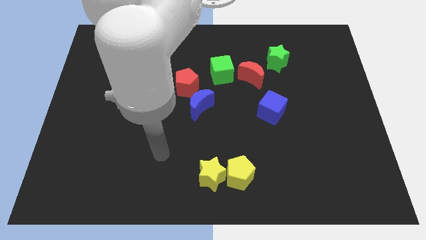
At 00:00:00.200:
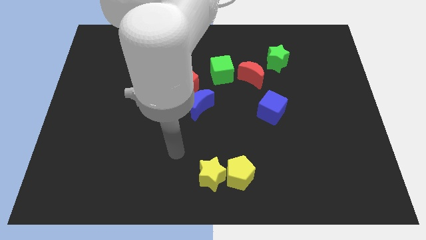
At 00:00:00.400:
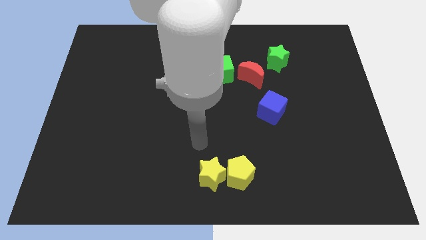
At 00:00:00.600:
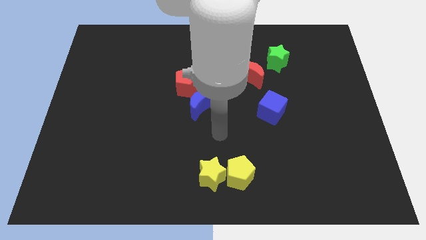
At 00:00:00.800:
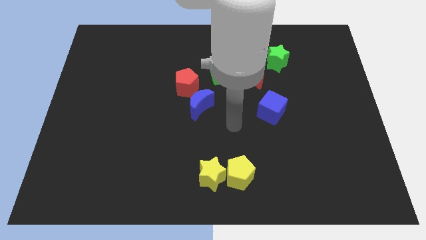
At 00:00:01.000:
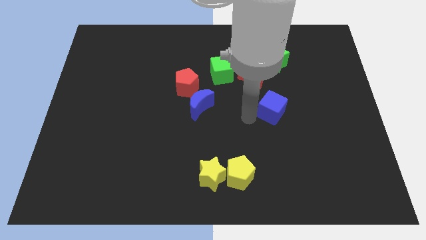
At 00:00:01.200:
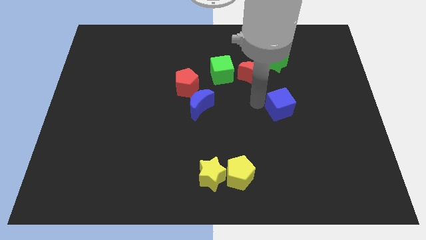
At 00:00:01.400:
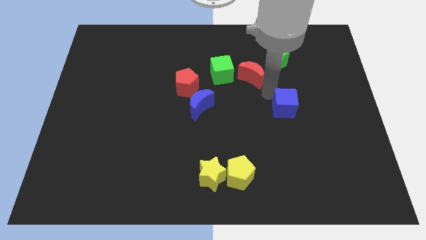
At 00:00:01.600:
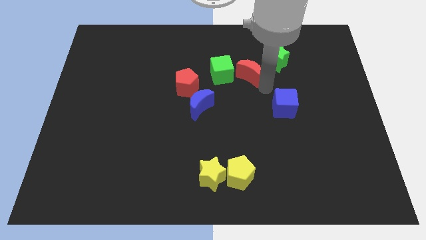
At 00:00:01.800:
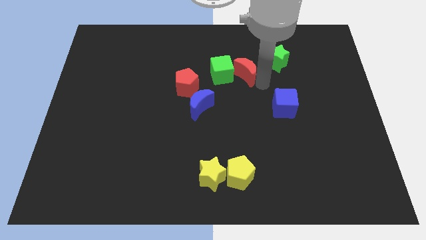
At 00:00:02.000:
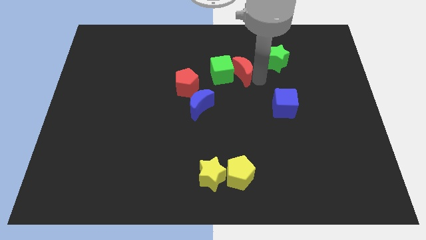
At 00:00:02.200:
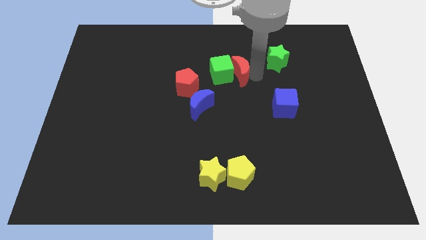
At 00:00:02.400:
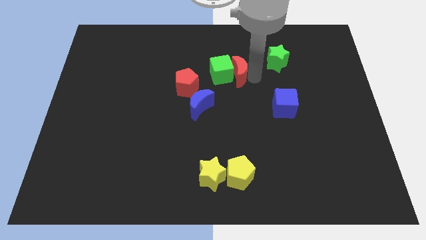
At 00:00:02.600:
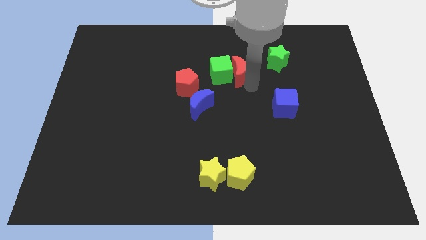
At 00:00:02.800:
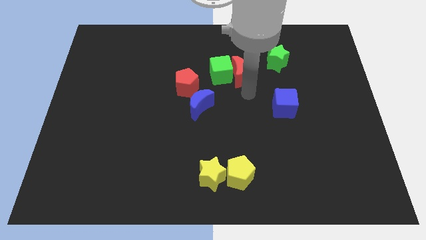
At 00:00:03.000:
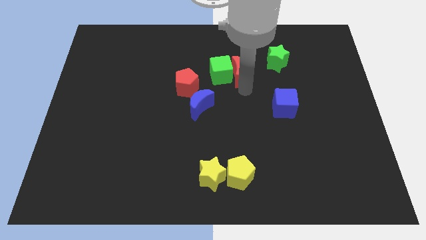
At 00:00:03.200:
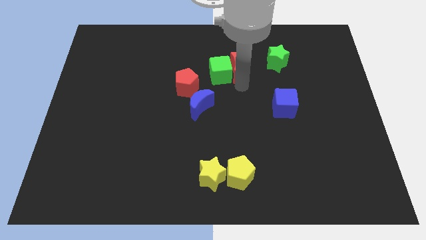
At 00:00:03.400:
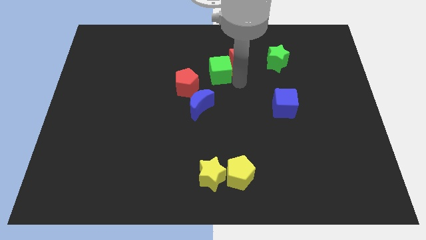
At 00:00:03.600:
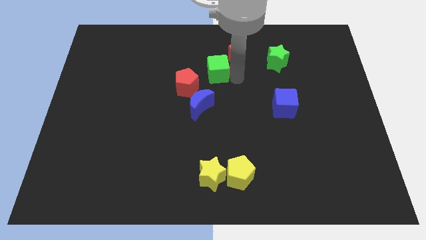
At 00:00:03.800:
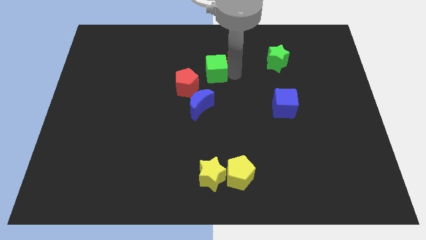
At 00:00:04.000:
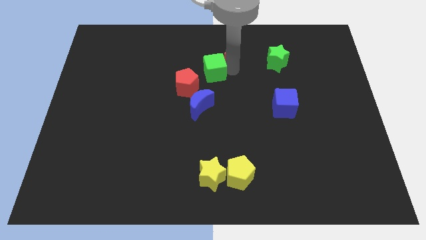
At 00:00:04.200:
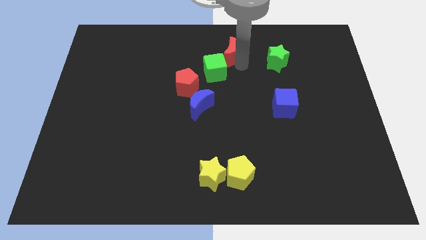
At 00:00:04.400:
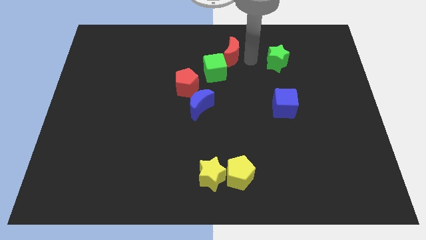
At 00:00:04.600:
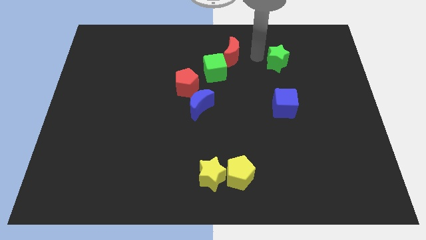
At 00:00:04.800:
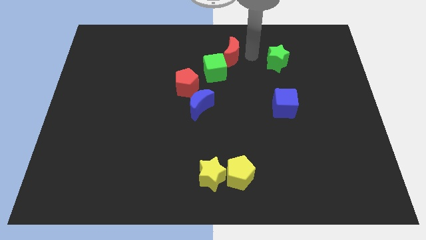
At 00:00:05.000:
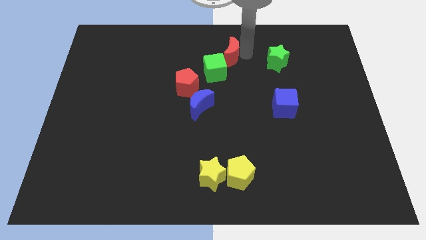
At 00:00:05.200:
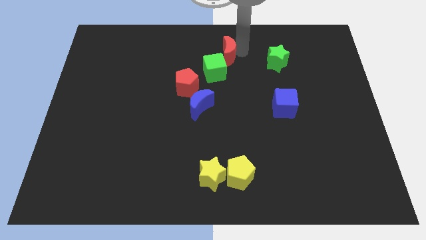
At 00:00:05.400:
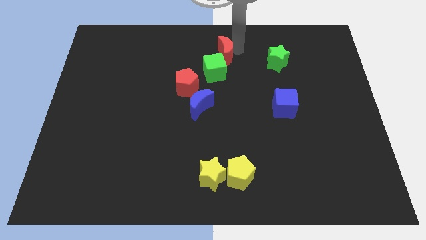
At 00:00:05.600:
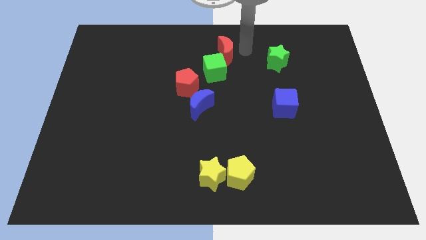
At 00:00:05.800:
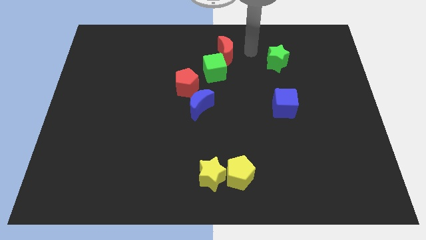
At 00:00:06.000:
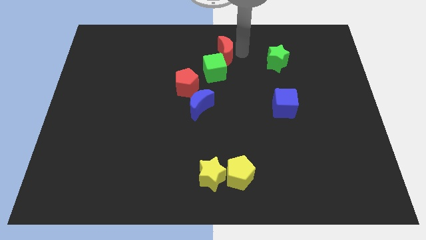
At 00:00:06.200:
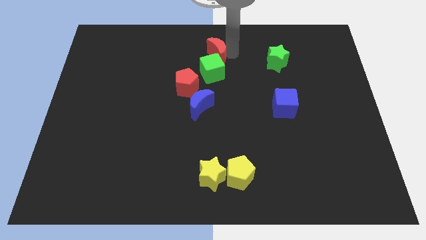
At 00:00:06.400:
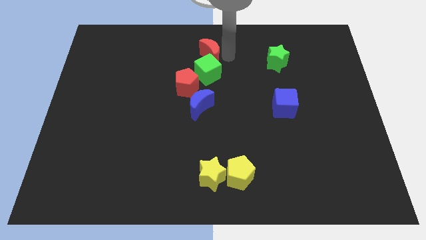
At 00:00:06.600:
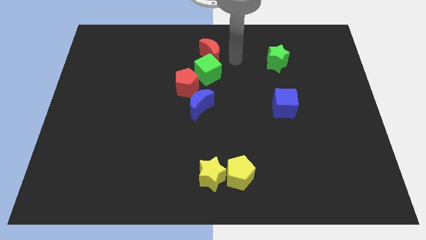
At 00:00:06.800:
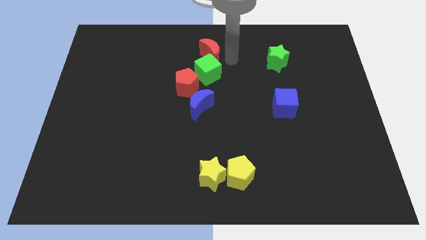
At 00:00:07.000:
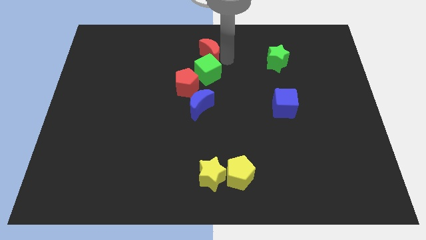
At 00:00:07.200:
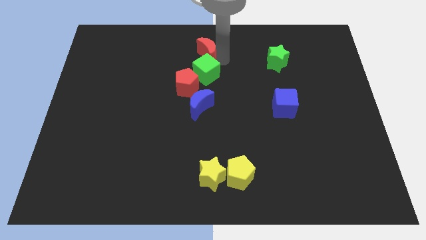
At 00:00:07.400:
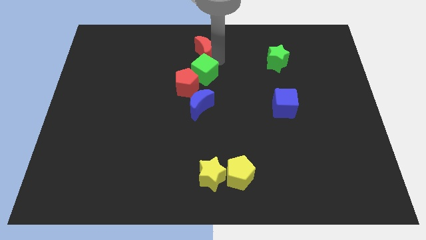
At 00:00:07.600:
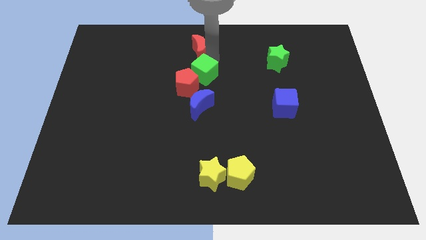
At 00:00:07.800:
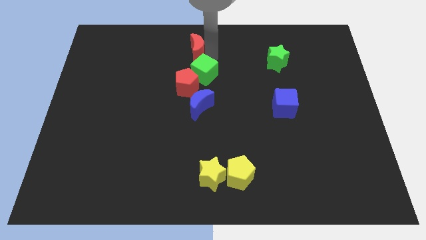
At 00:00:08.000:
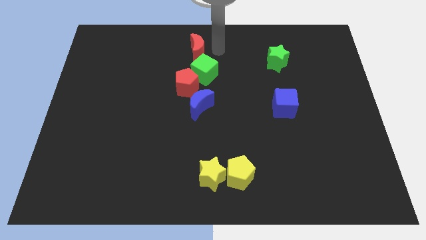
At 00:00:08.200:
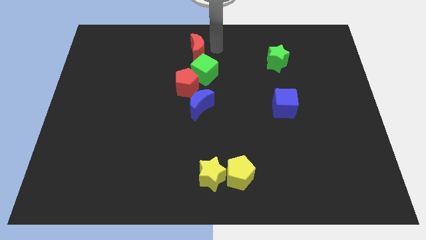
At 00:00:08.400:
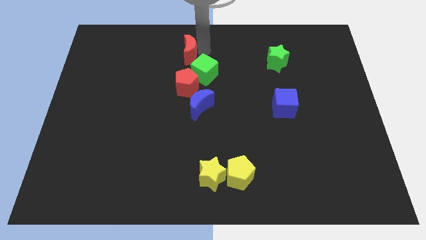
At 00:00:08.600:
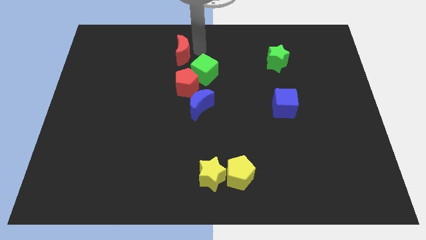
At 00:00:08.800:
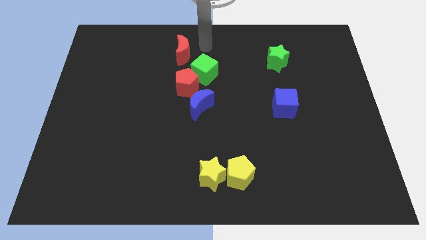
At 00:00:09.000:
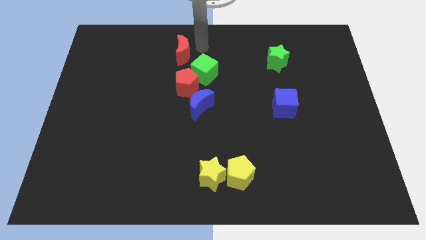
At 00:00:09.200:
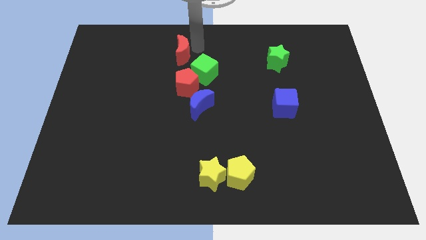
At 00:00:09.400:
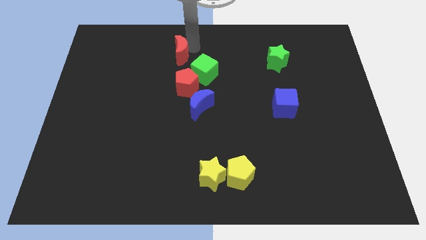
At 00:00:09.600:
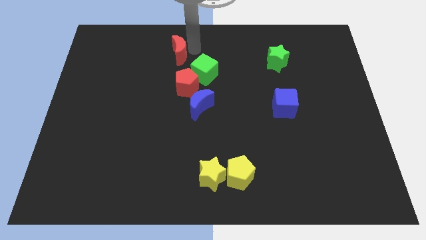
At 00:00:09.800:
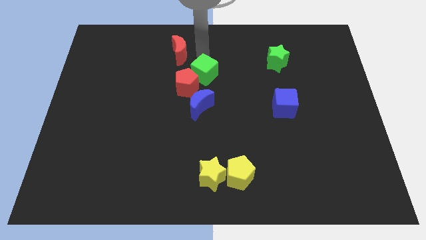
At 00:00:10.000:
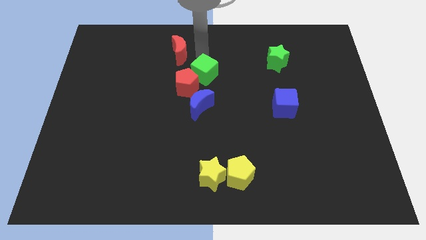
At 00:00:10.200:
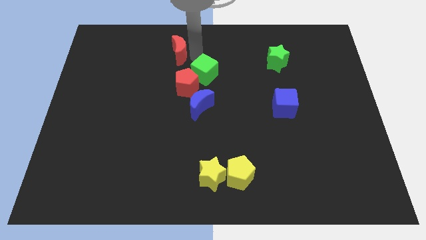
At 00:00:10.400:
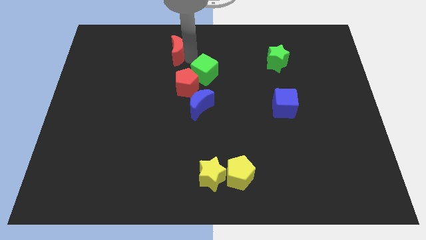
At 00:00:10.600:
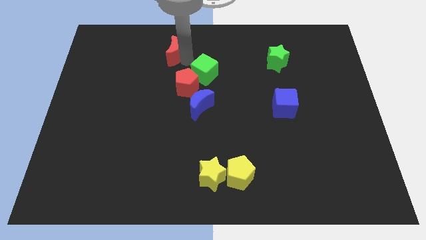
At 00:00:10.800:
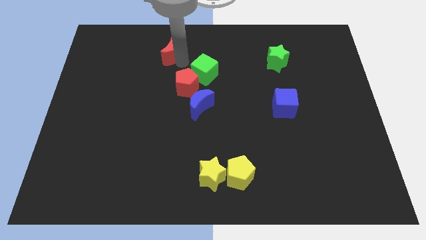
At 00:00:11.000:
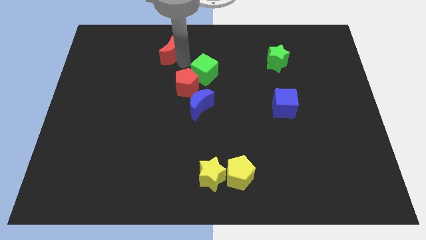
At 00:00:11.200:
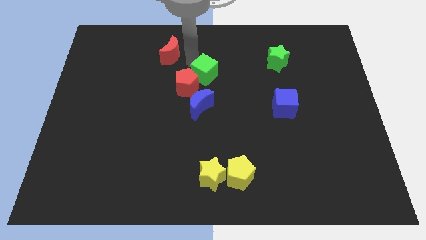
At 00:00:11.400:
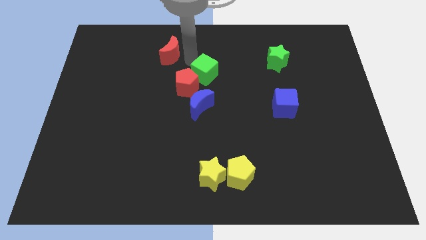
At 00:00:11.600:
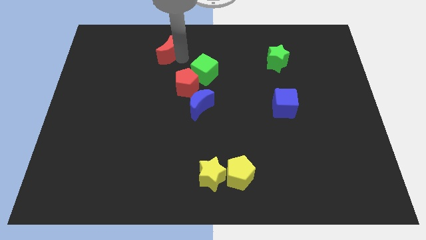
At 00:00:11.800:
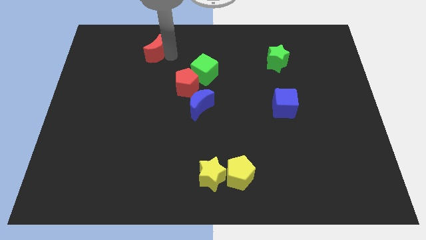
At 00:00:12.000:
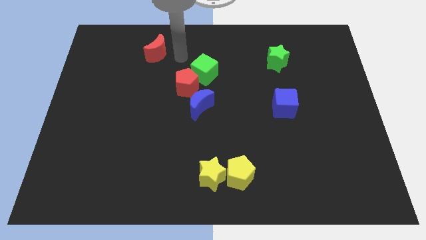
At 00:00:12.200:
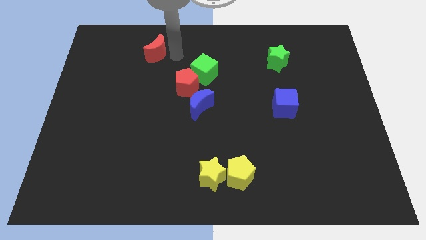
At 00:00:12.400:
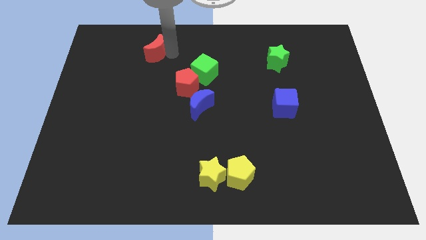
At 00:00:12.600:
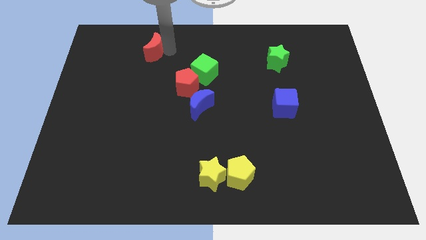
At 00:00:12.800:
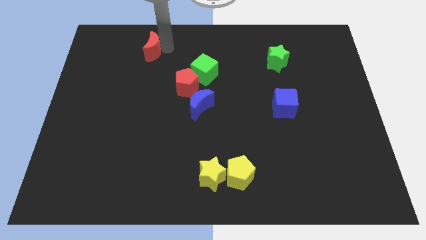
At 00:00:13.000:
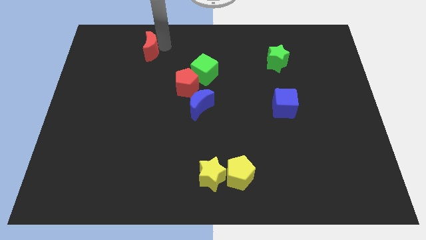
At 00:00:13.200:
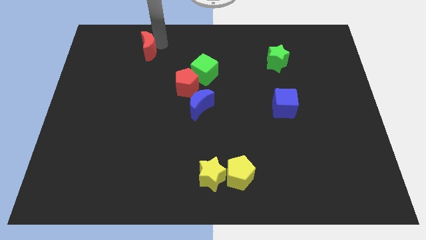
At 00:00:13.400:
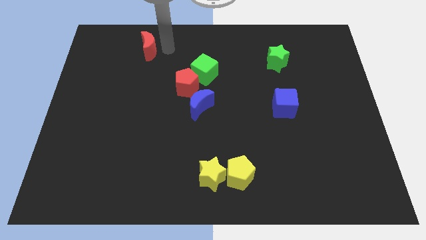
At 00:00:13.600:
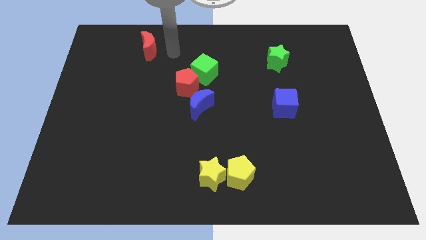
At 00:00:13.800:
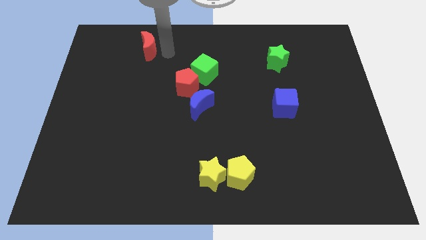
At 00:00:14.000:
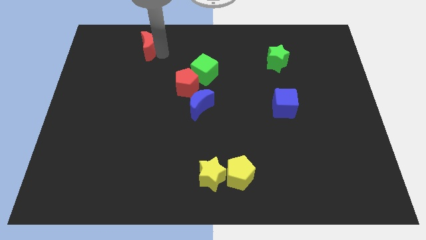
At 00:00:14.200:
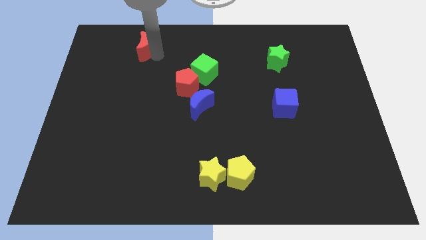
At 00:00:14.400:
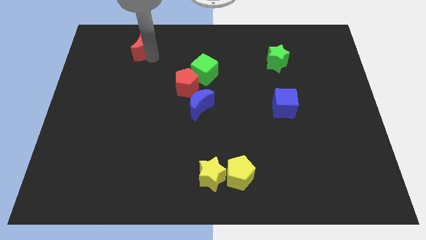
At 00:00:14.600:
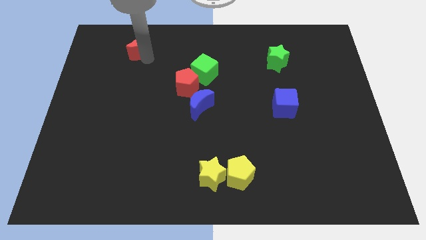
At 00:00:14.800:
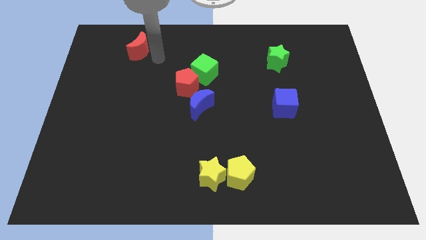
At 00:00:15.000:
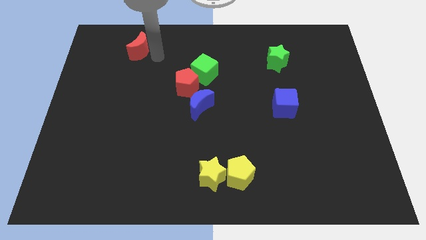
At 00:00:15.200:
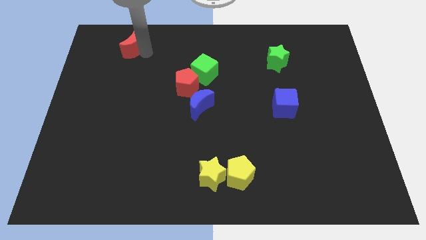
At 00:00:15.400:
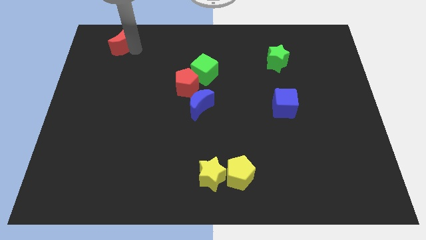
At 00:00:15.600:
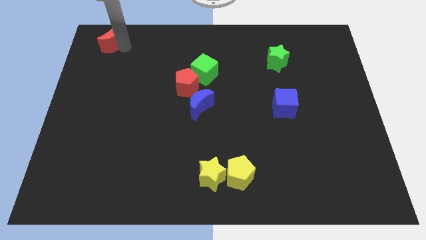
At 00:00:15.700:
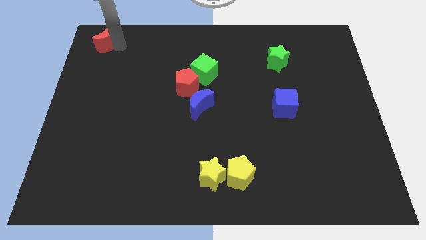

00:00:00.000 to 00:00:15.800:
slide the red moon to the upper left corner
